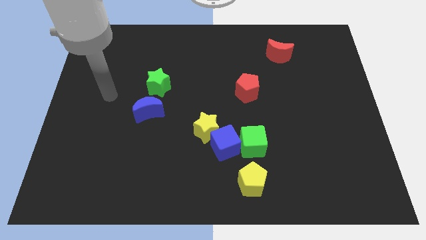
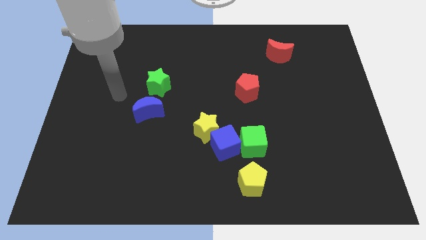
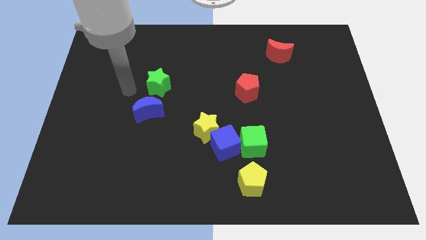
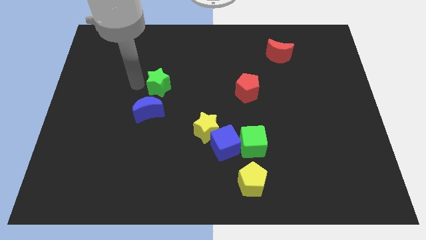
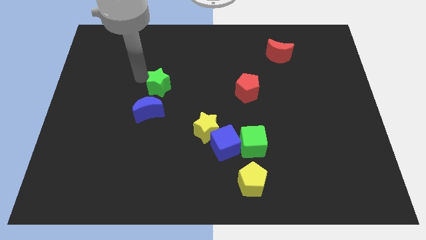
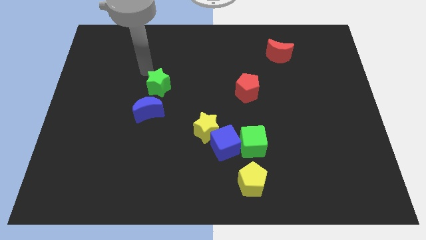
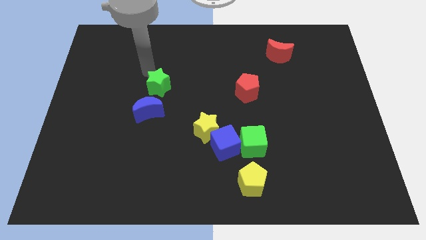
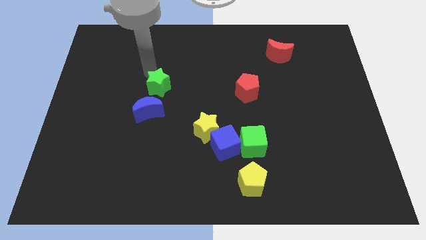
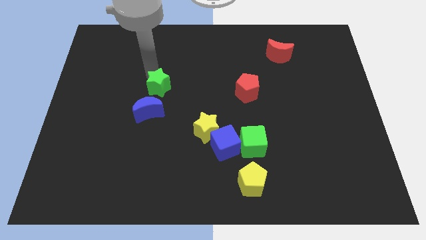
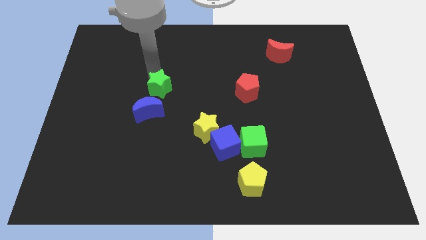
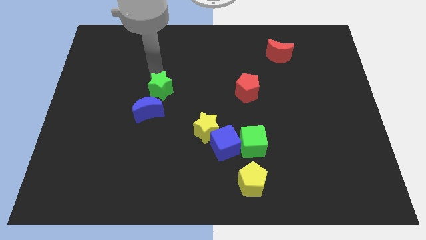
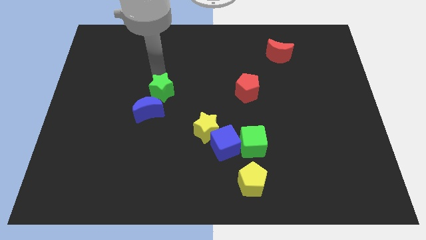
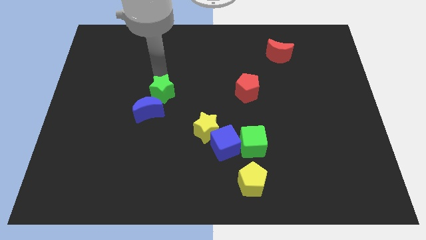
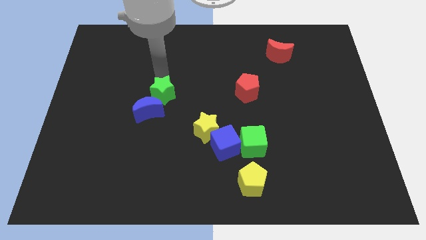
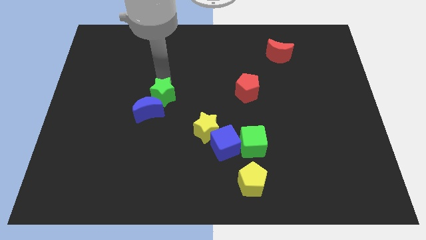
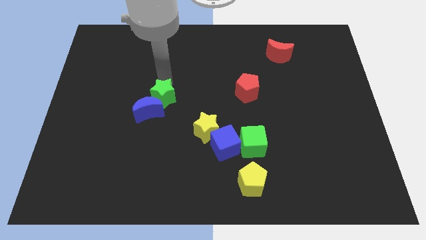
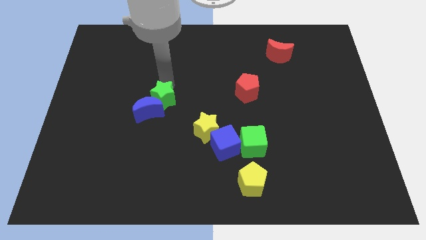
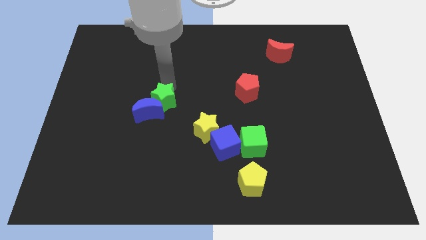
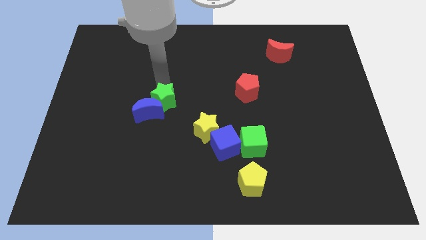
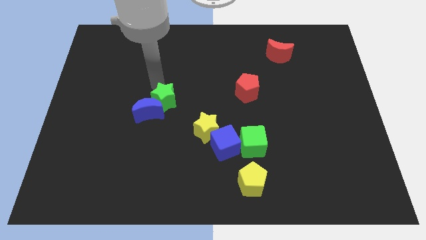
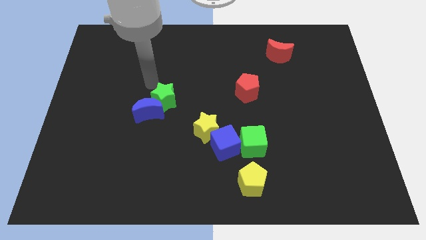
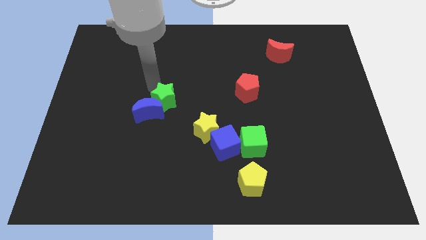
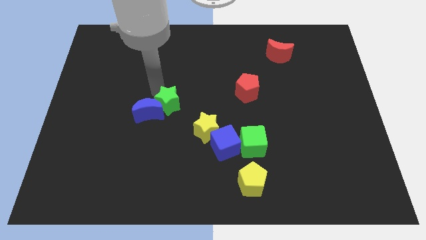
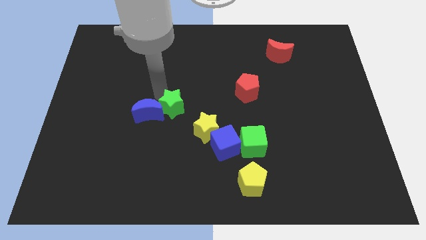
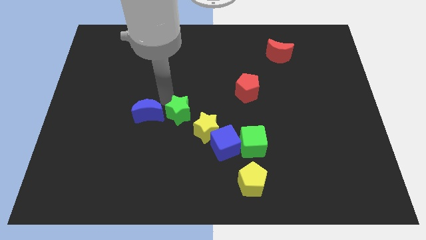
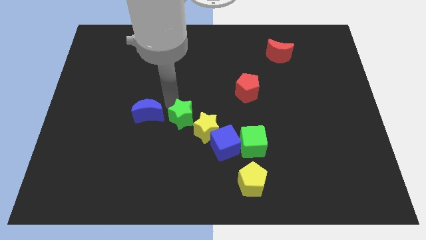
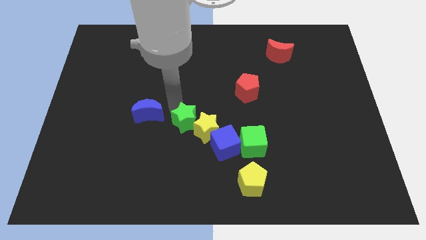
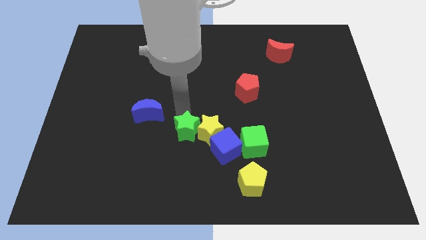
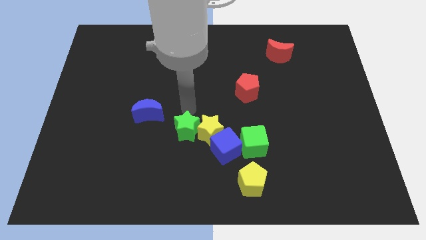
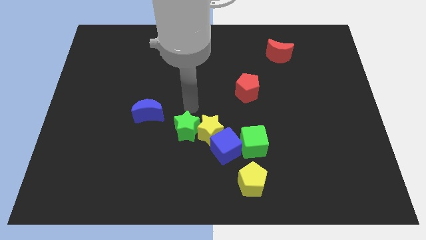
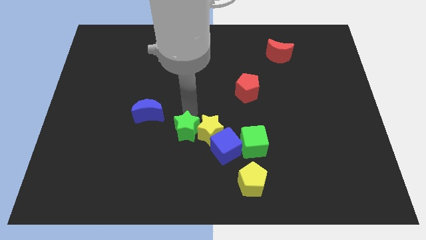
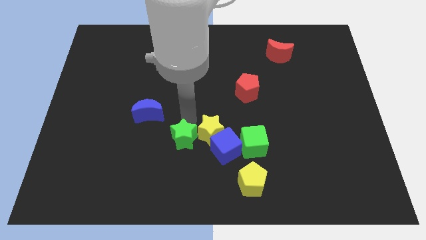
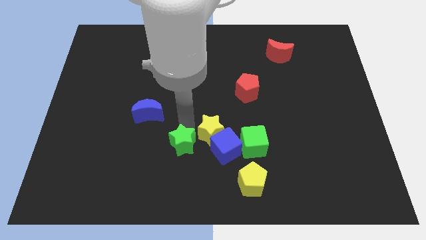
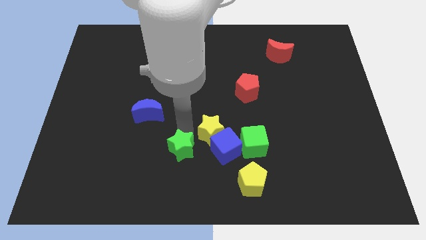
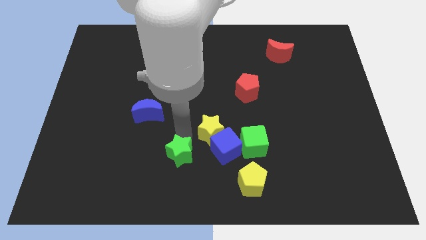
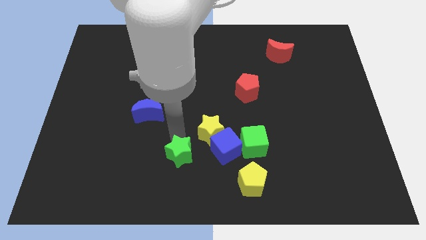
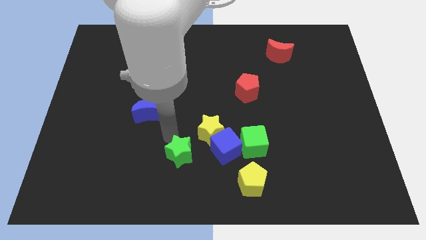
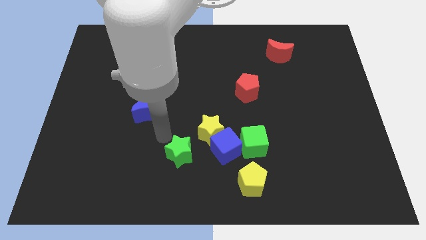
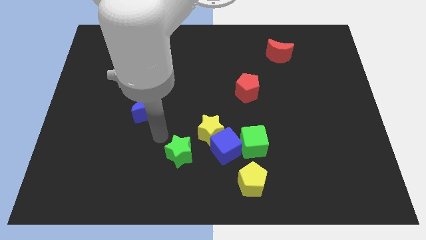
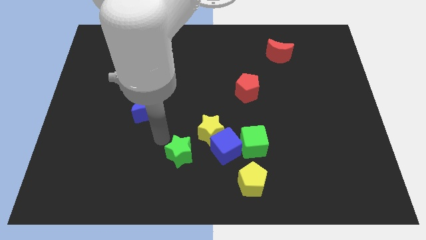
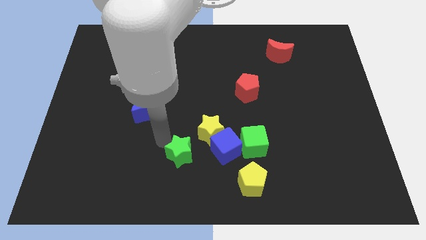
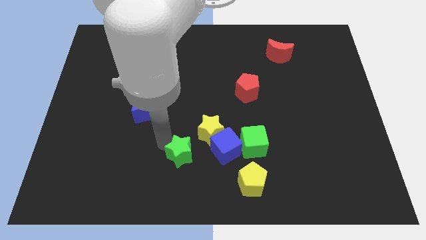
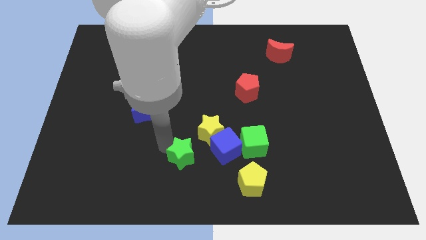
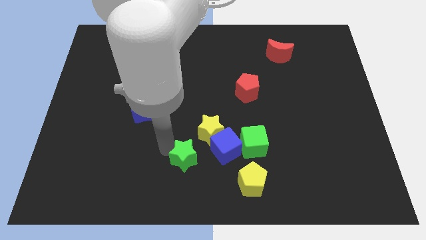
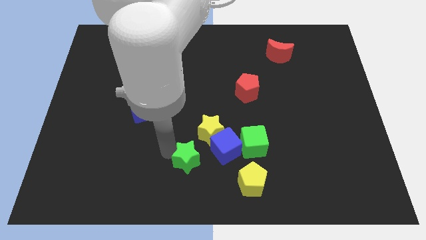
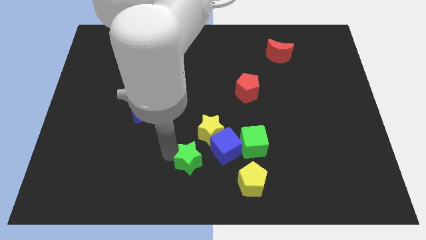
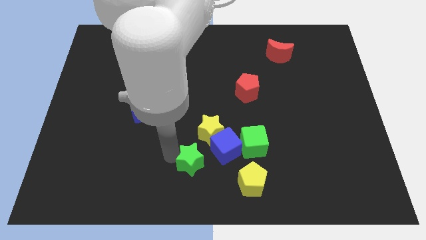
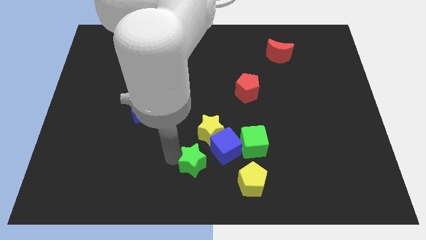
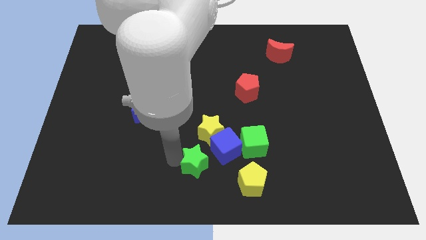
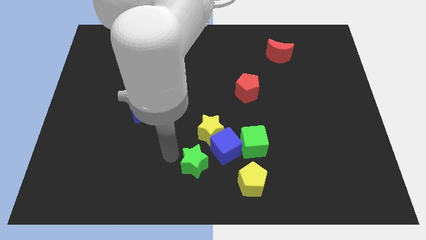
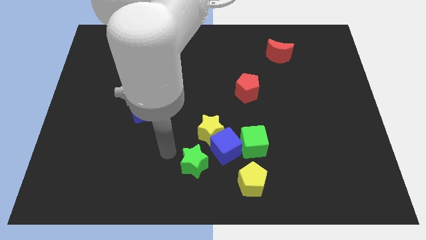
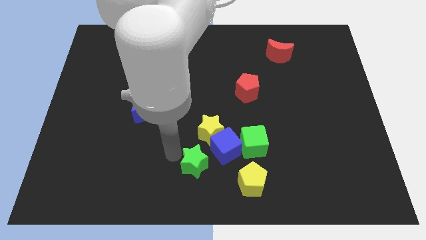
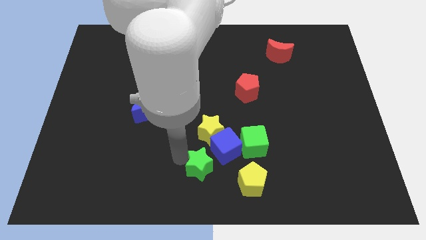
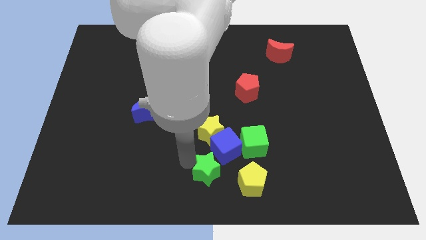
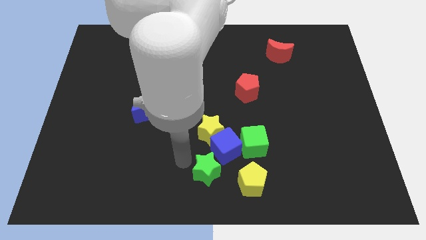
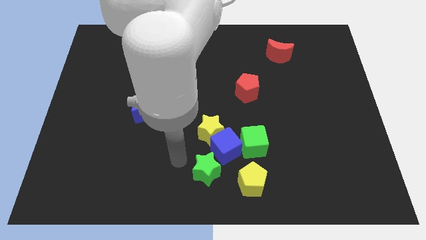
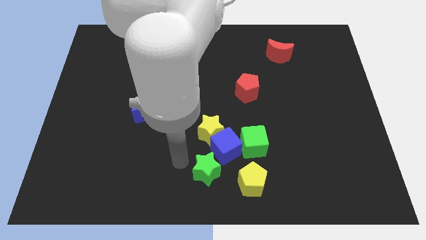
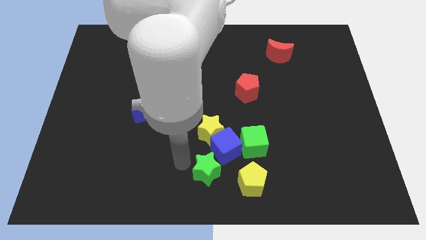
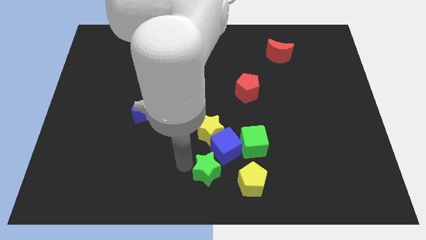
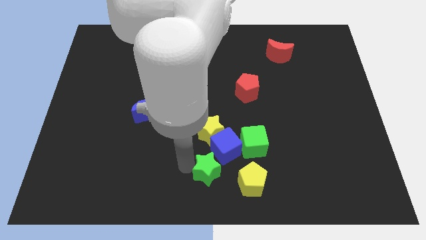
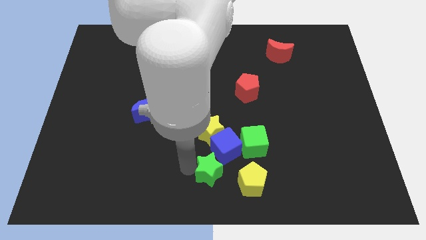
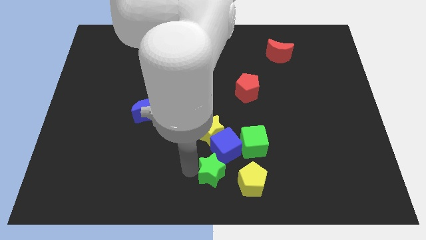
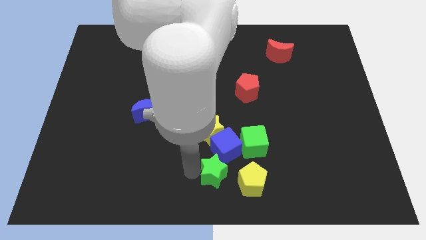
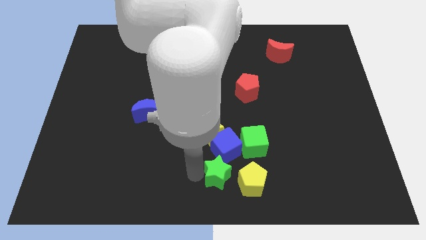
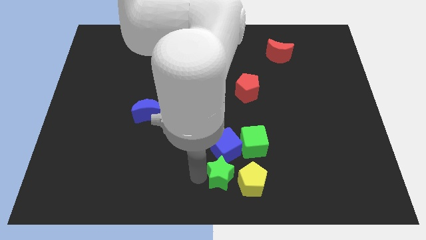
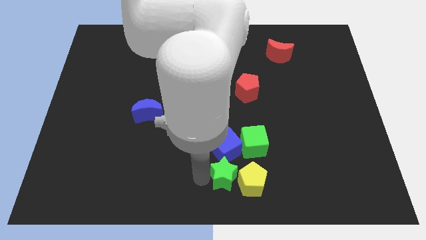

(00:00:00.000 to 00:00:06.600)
slide the green star towards the yellow pentagon

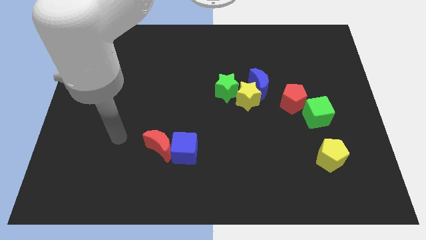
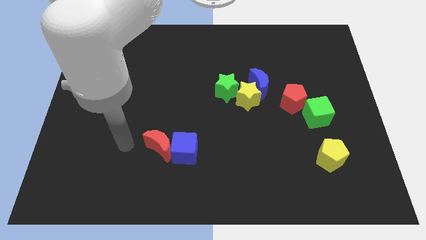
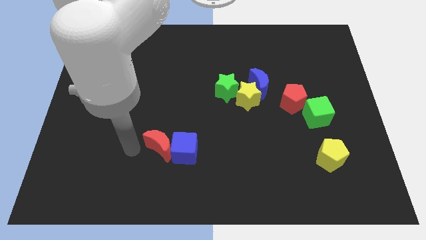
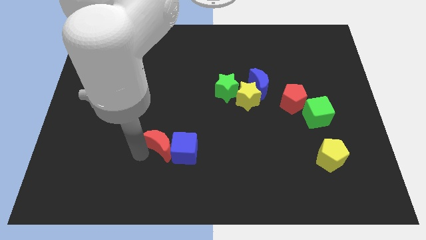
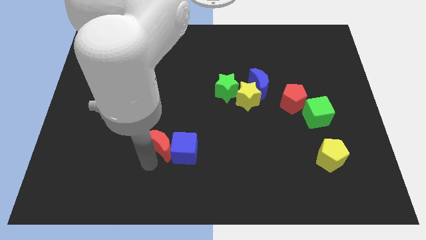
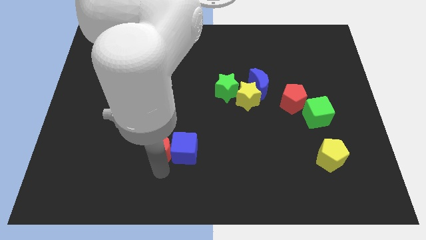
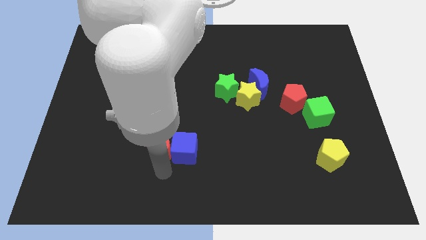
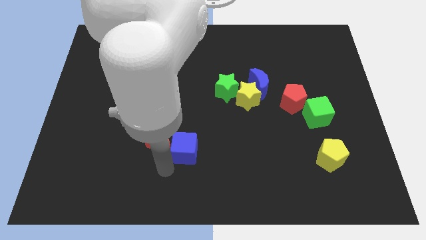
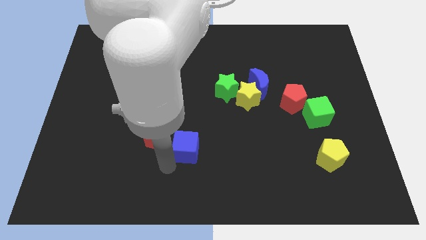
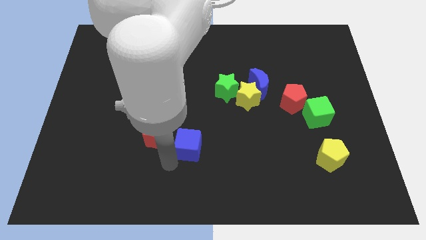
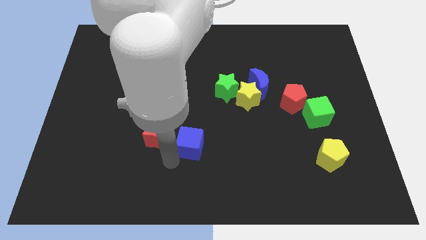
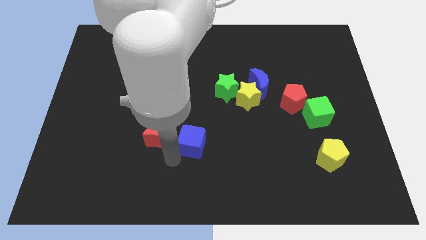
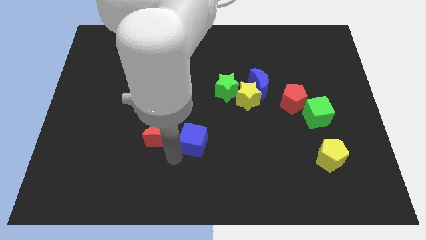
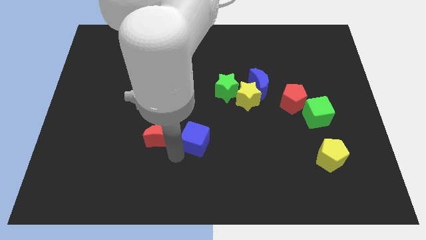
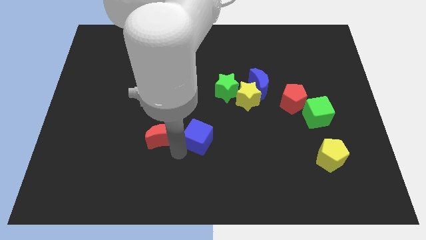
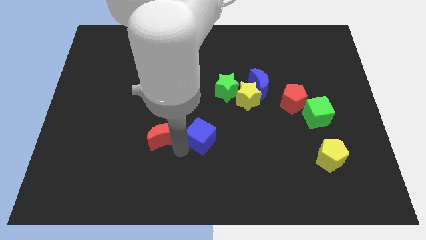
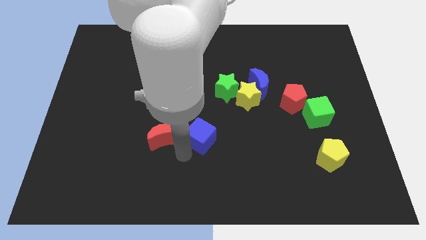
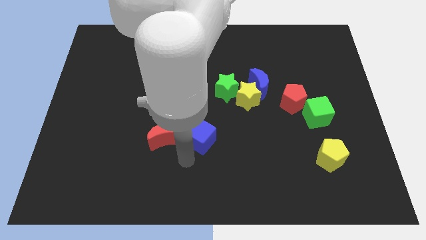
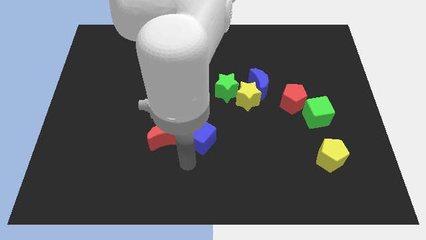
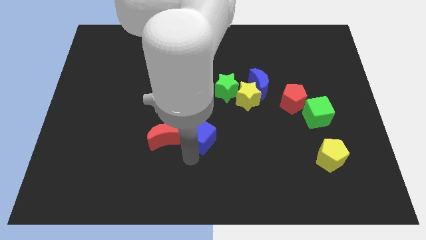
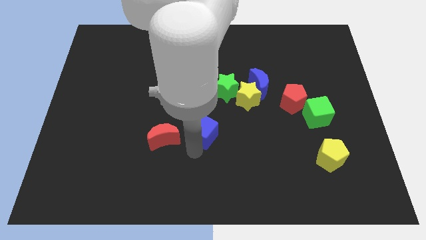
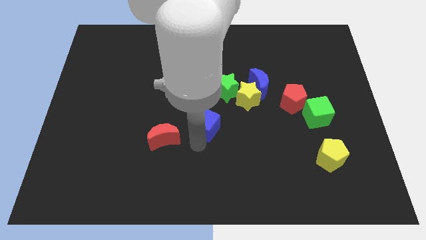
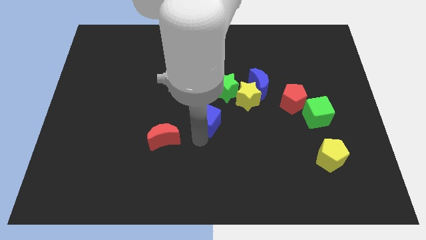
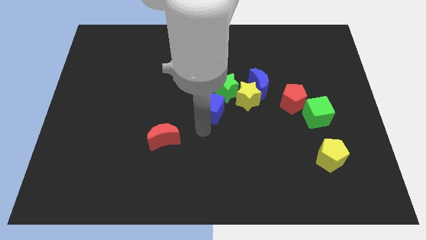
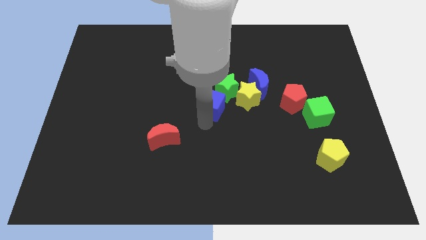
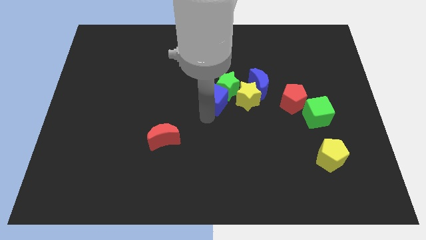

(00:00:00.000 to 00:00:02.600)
move the blue cube close to the green star
